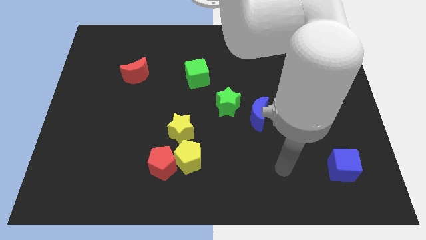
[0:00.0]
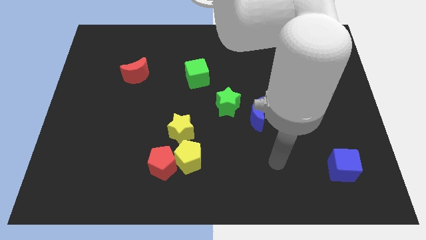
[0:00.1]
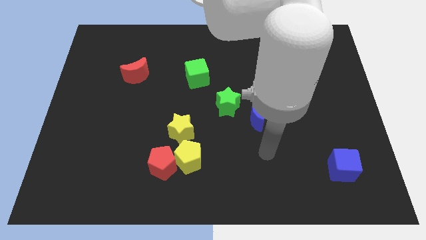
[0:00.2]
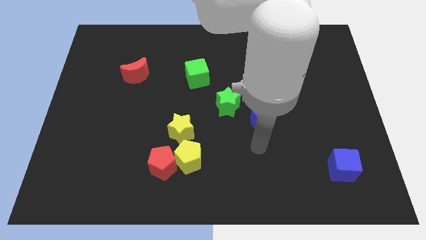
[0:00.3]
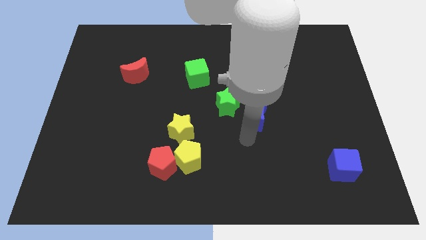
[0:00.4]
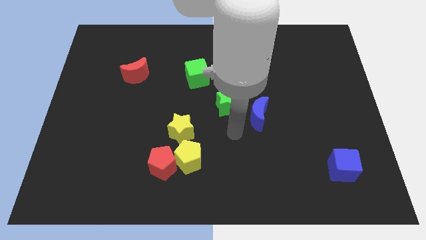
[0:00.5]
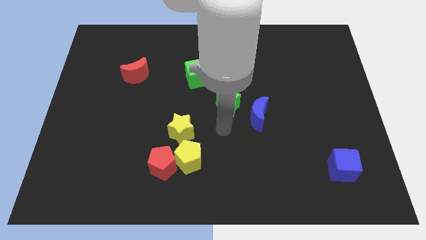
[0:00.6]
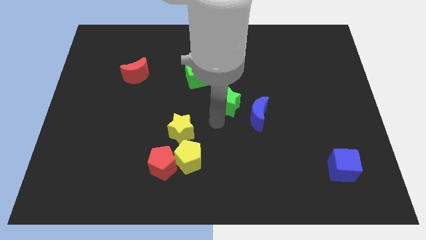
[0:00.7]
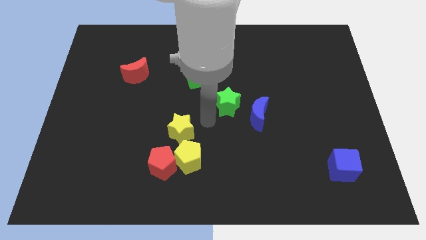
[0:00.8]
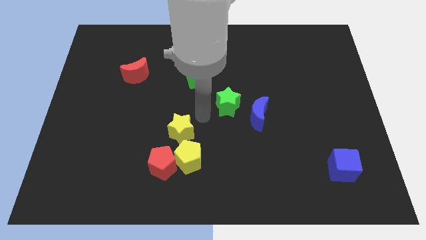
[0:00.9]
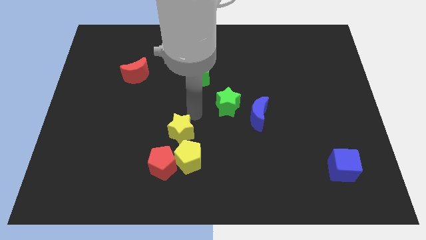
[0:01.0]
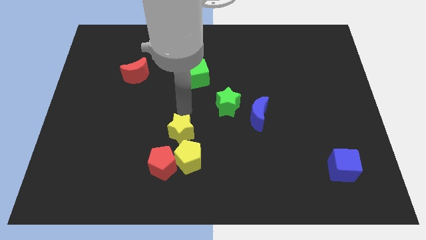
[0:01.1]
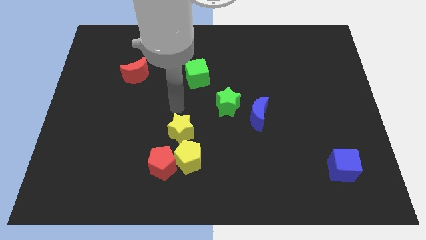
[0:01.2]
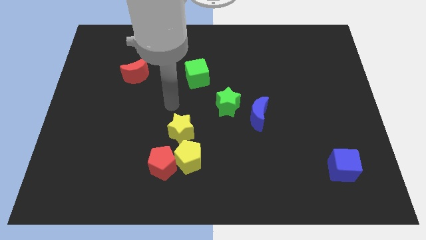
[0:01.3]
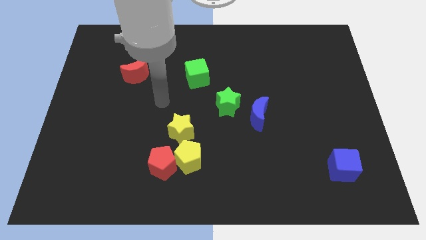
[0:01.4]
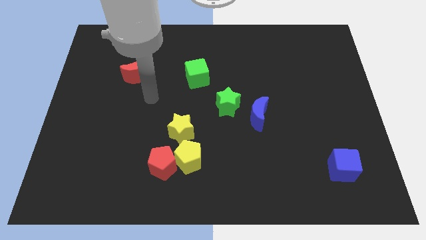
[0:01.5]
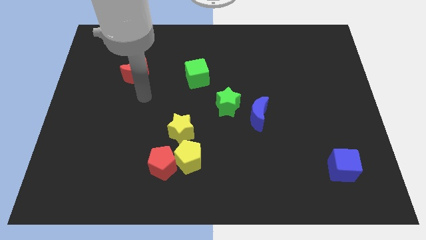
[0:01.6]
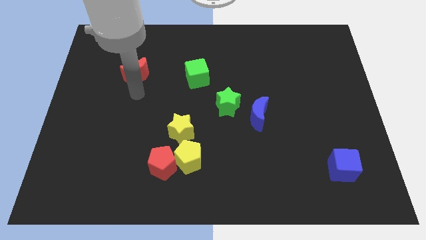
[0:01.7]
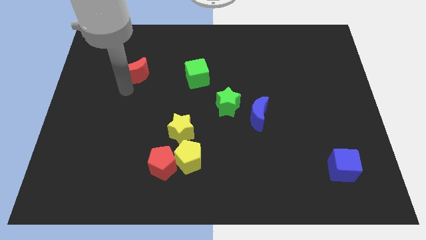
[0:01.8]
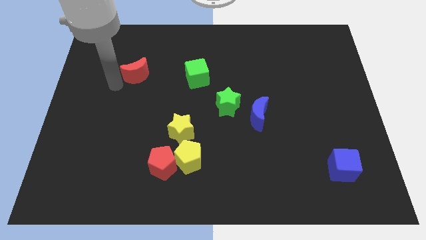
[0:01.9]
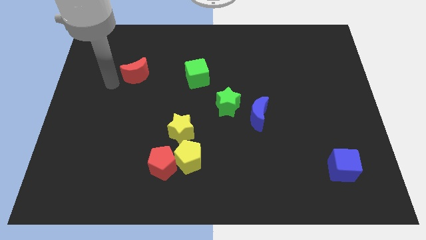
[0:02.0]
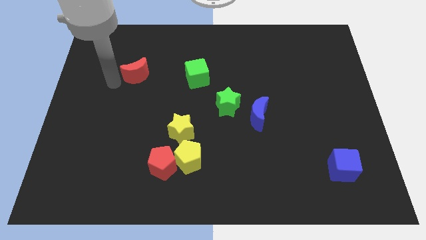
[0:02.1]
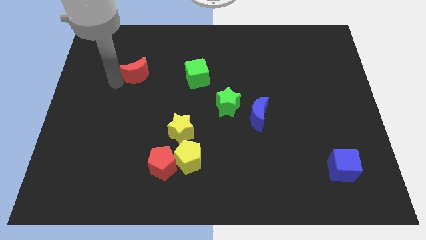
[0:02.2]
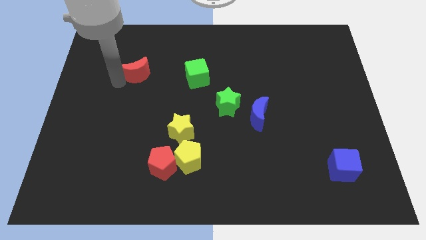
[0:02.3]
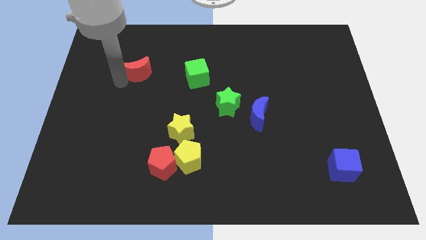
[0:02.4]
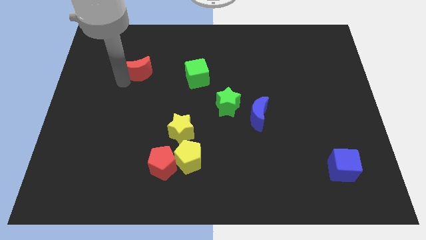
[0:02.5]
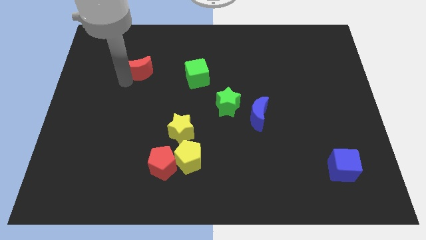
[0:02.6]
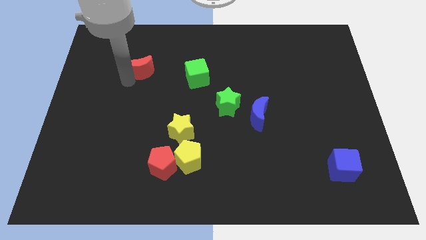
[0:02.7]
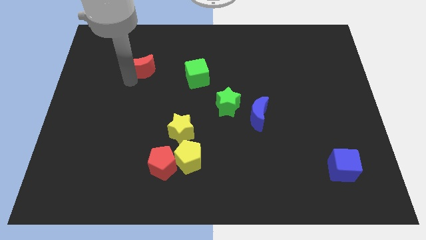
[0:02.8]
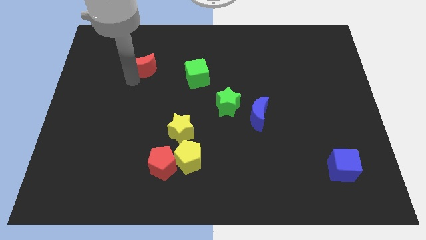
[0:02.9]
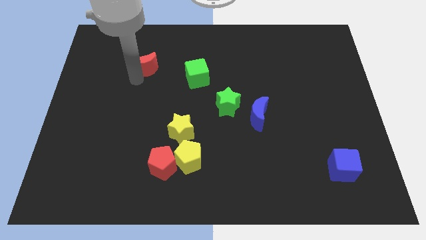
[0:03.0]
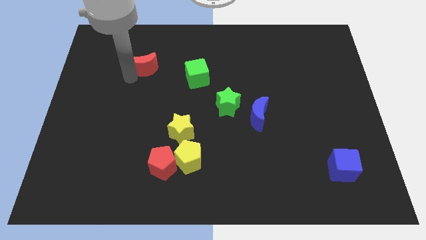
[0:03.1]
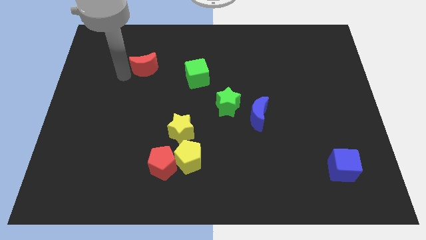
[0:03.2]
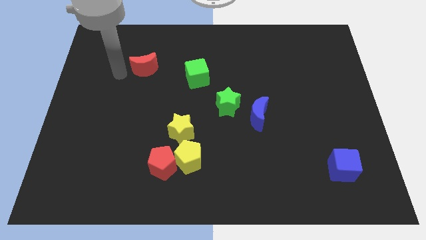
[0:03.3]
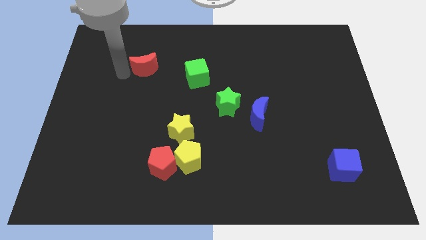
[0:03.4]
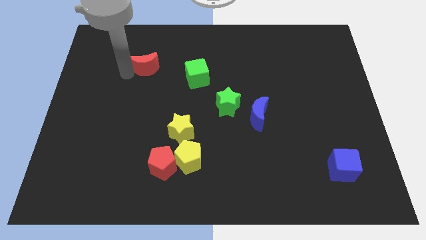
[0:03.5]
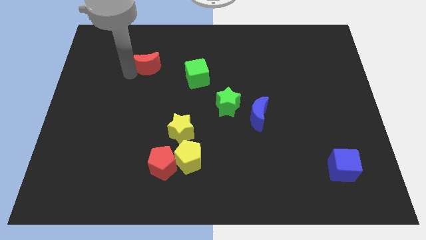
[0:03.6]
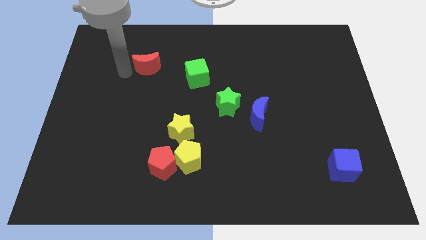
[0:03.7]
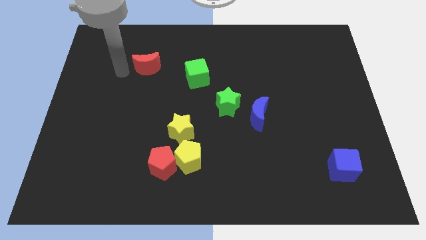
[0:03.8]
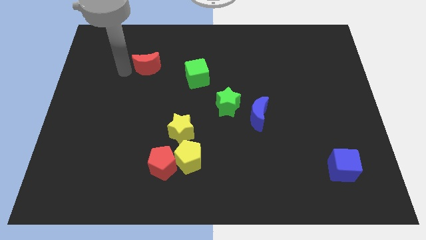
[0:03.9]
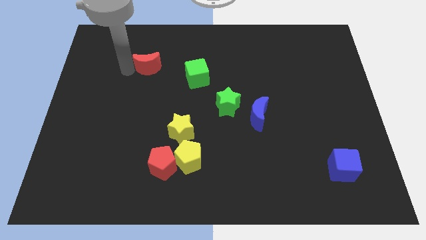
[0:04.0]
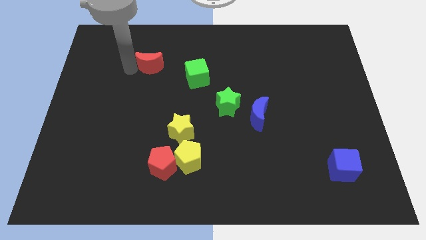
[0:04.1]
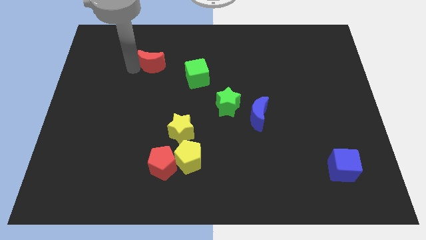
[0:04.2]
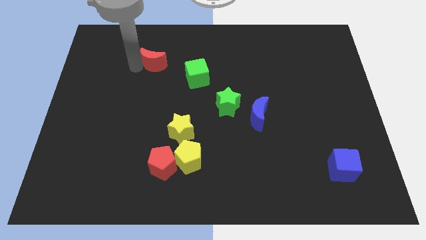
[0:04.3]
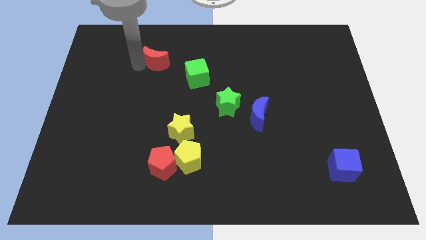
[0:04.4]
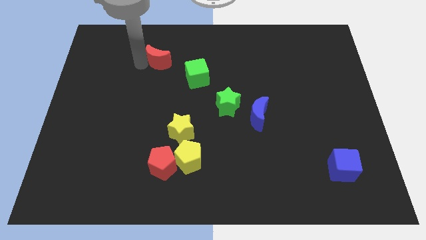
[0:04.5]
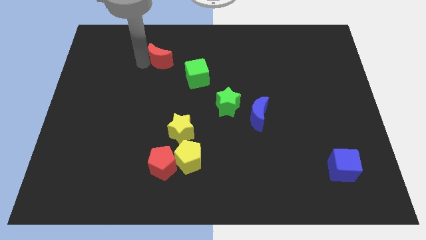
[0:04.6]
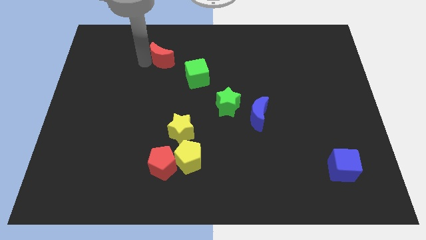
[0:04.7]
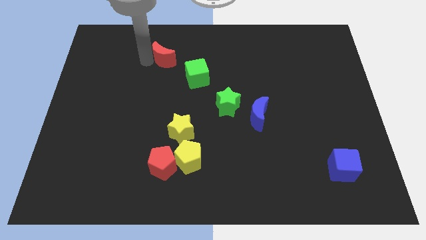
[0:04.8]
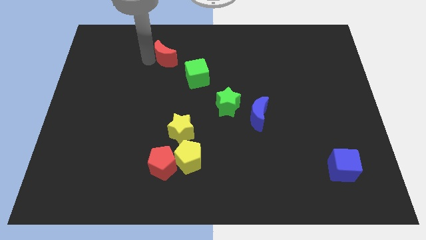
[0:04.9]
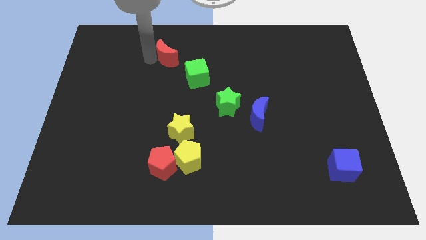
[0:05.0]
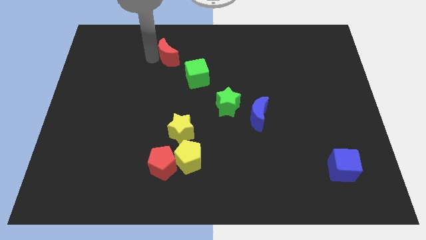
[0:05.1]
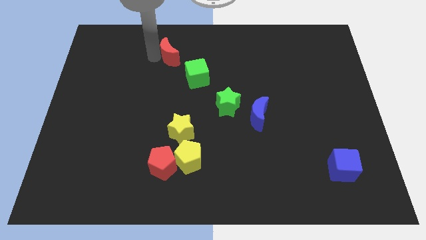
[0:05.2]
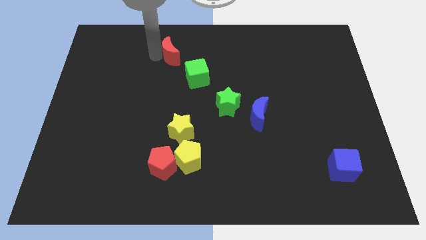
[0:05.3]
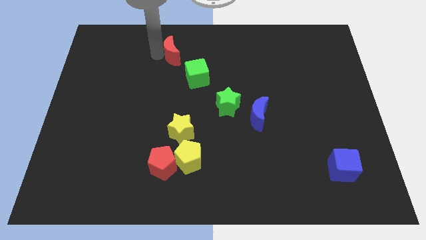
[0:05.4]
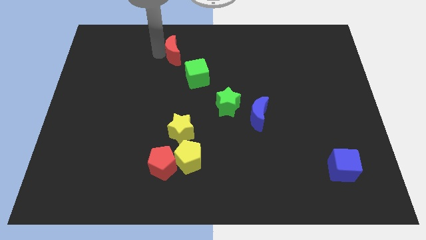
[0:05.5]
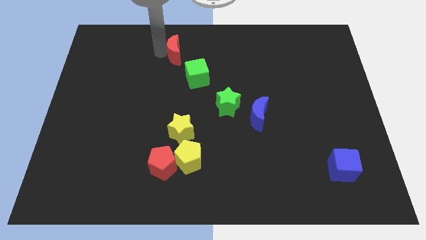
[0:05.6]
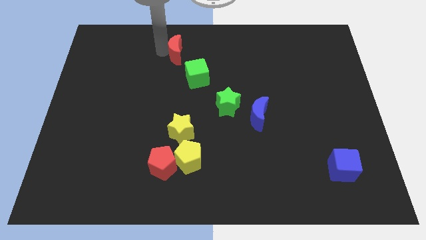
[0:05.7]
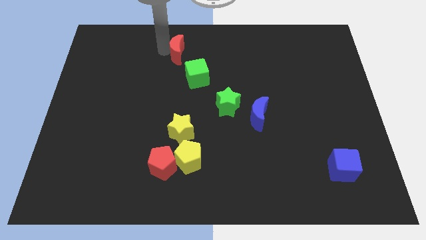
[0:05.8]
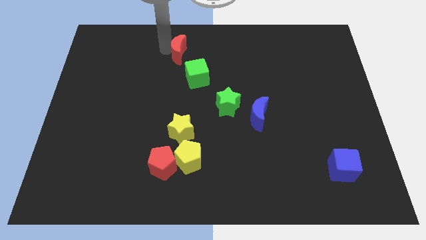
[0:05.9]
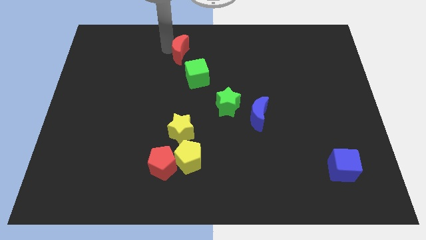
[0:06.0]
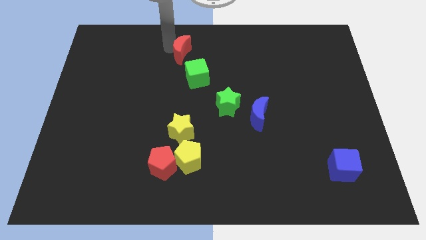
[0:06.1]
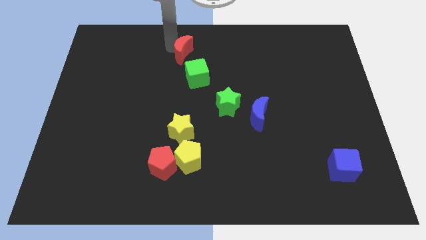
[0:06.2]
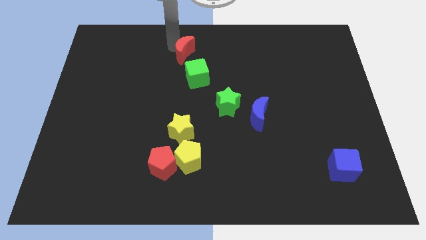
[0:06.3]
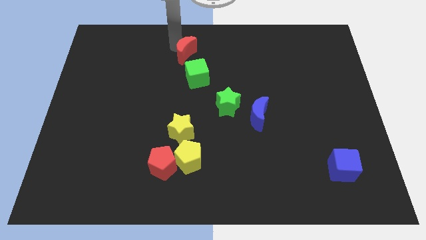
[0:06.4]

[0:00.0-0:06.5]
slide the red moon to the towards your base

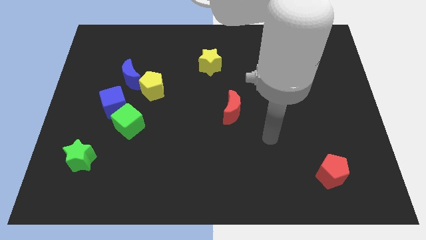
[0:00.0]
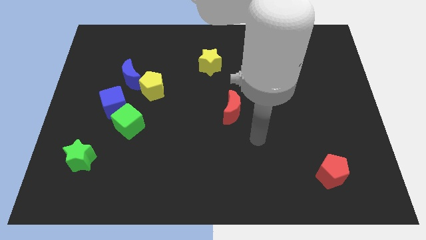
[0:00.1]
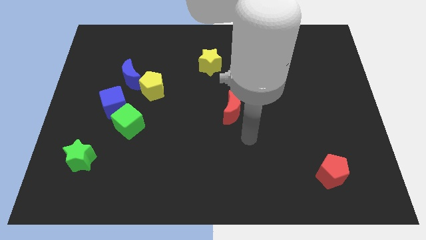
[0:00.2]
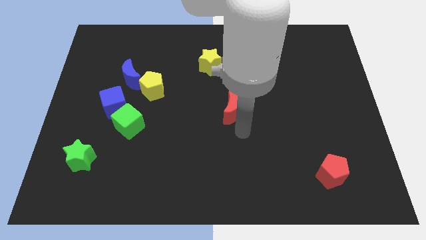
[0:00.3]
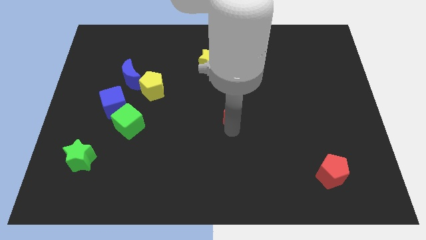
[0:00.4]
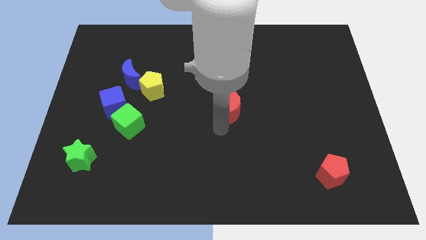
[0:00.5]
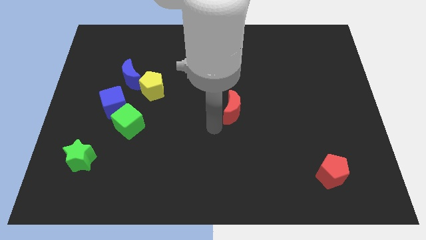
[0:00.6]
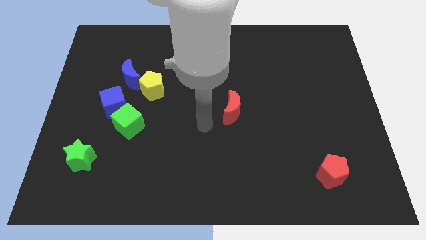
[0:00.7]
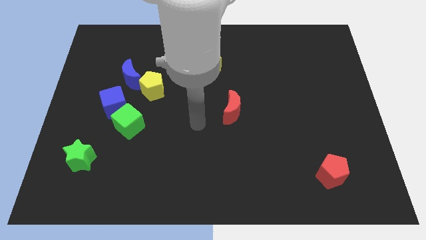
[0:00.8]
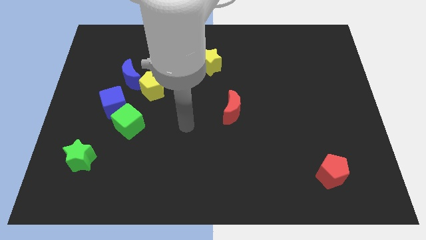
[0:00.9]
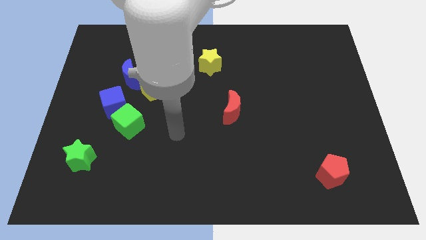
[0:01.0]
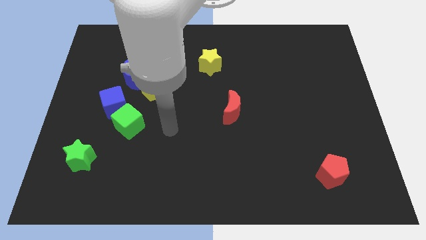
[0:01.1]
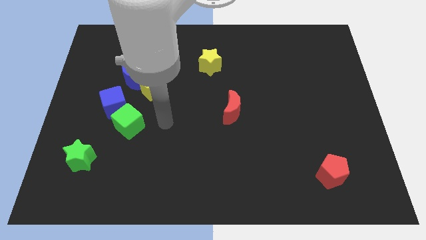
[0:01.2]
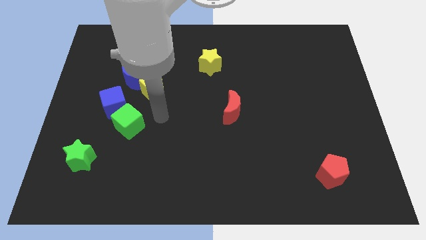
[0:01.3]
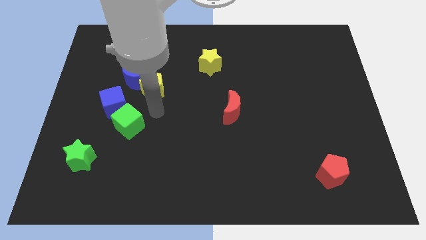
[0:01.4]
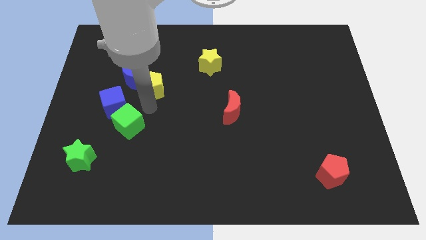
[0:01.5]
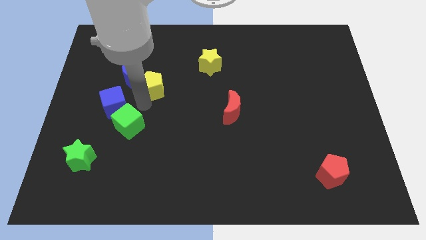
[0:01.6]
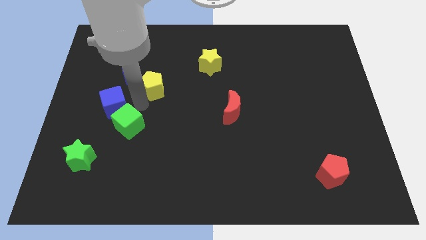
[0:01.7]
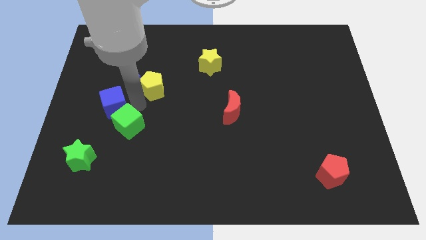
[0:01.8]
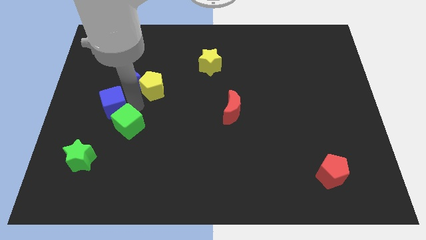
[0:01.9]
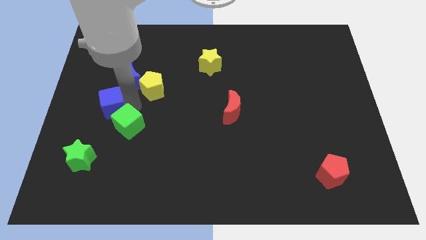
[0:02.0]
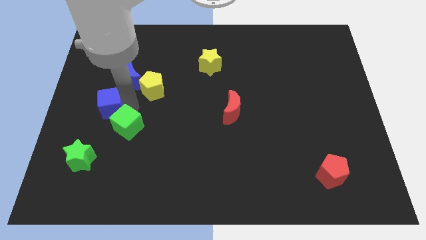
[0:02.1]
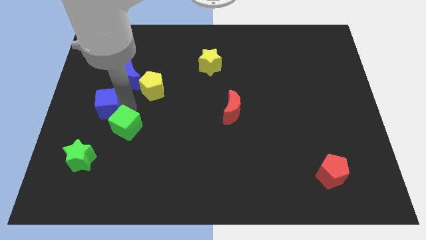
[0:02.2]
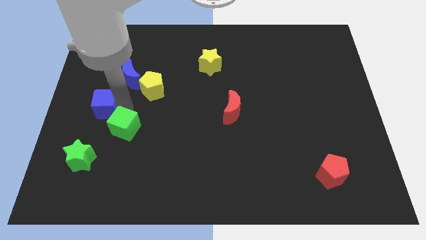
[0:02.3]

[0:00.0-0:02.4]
move the blue cube to the left side of the board
